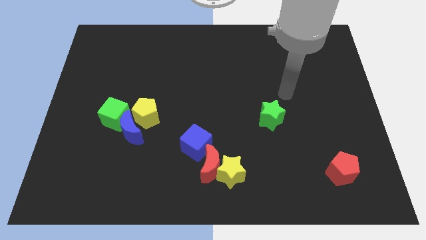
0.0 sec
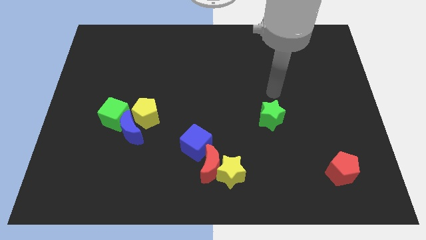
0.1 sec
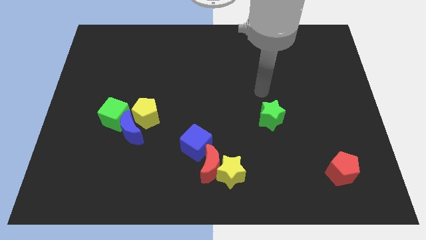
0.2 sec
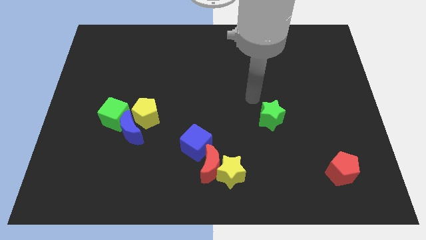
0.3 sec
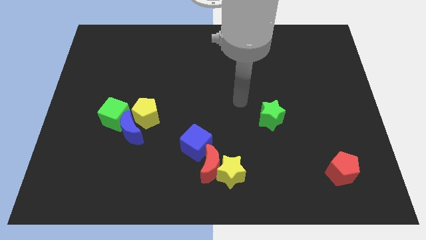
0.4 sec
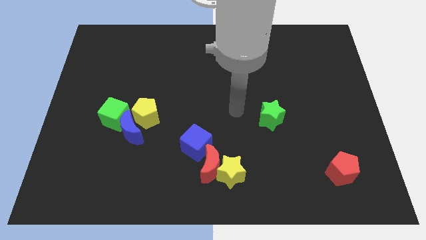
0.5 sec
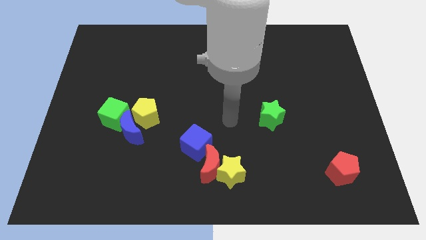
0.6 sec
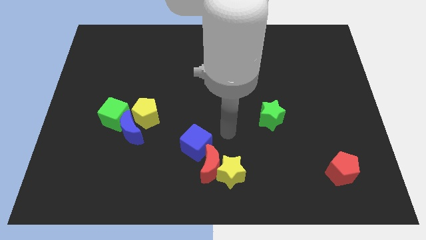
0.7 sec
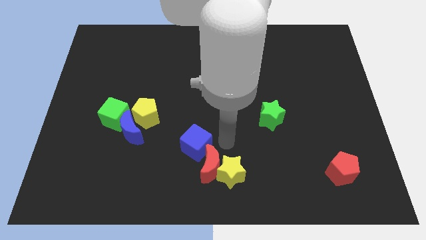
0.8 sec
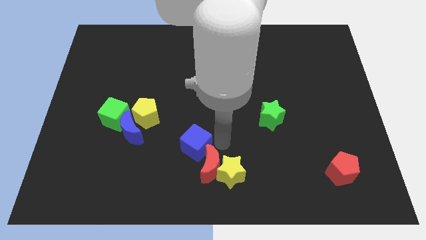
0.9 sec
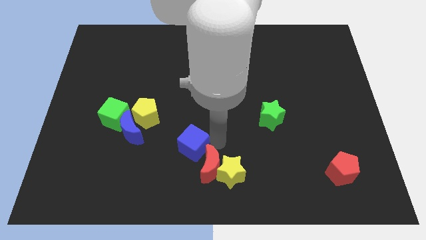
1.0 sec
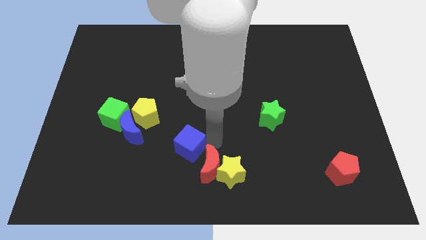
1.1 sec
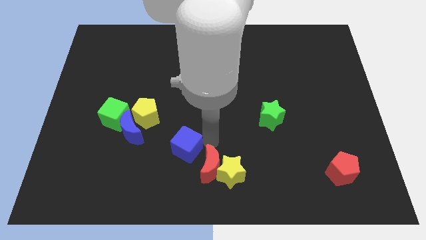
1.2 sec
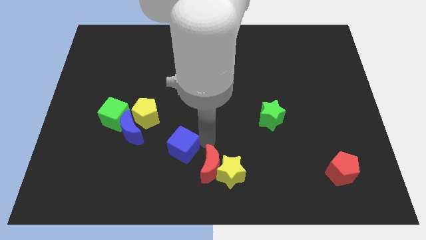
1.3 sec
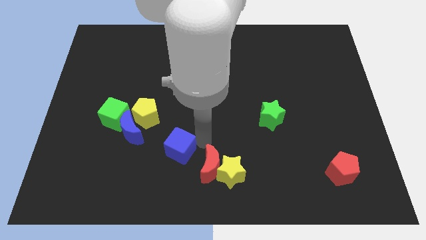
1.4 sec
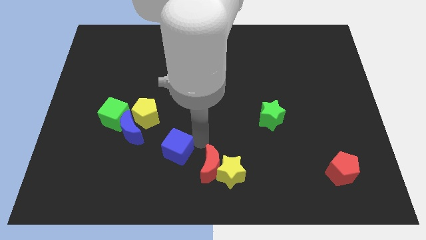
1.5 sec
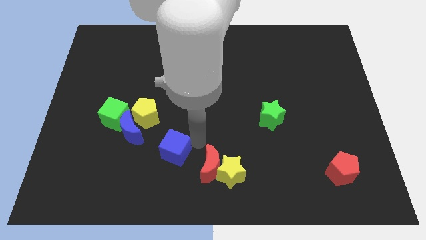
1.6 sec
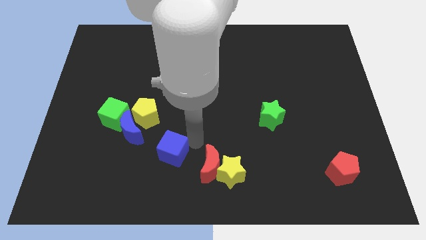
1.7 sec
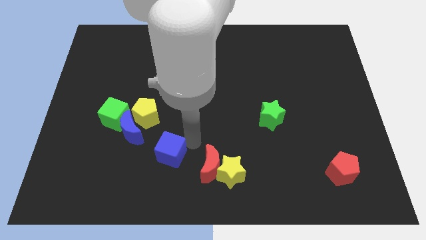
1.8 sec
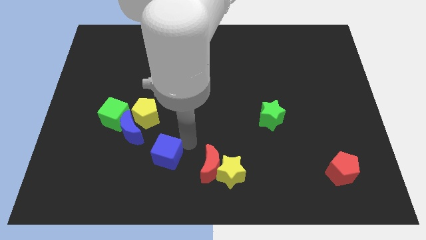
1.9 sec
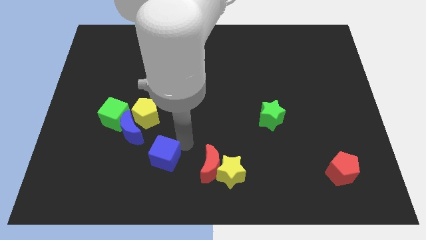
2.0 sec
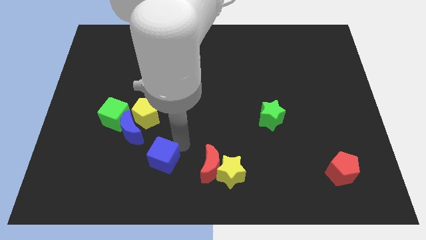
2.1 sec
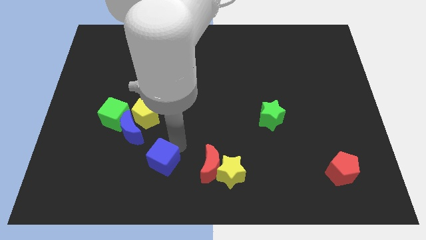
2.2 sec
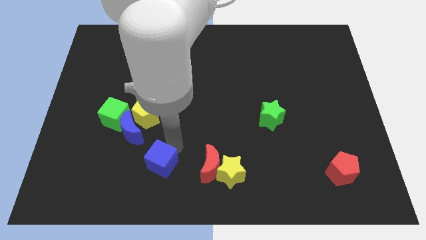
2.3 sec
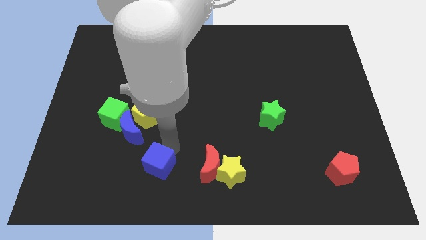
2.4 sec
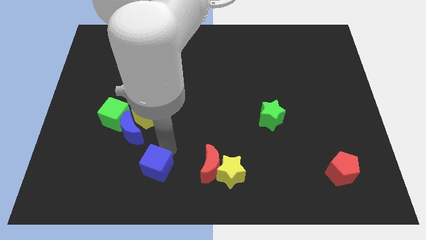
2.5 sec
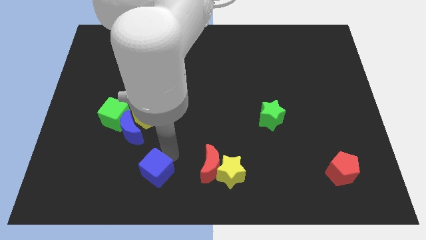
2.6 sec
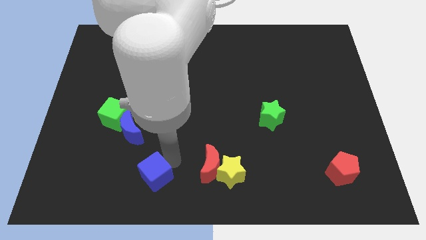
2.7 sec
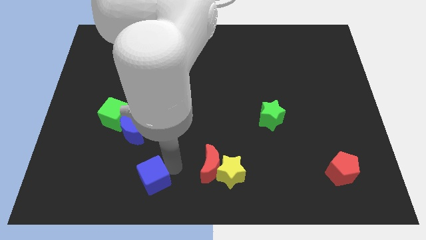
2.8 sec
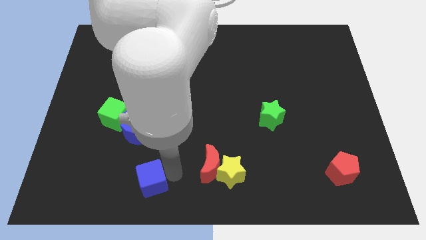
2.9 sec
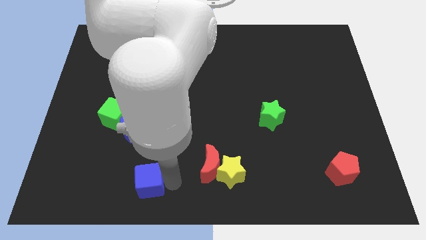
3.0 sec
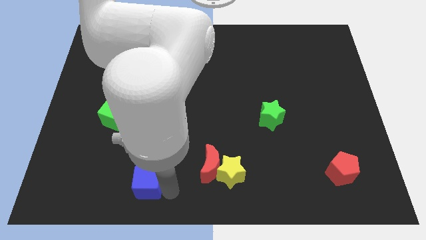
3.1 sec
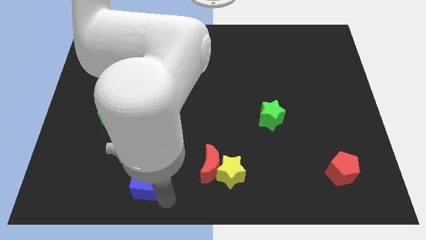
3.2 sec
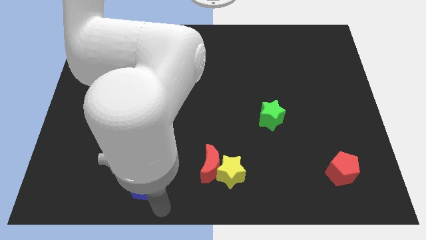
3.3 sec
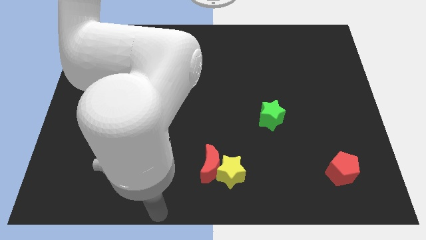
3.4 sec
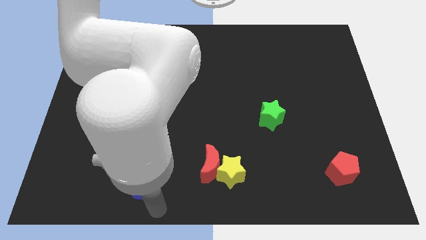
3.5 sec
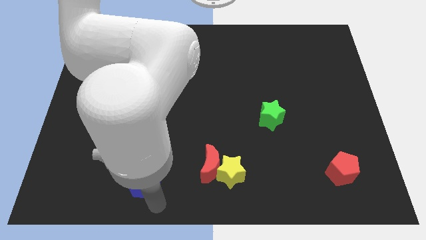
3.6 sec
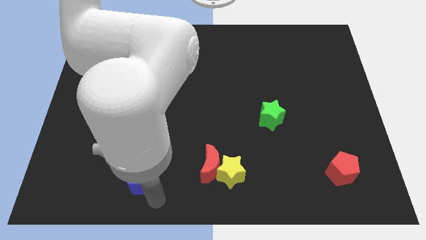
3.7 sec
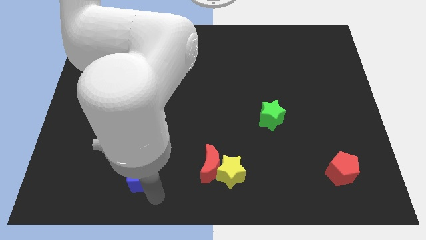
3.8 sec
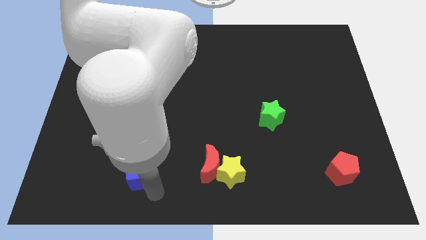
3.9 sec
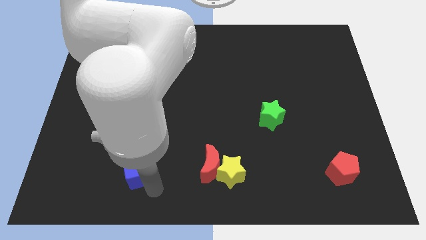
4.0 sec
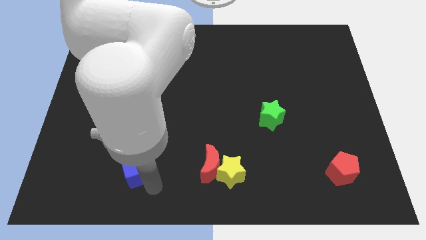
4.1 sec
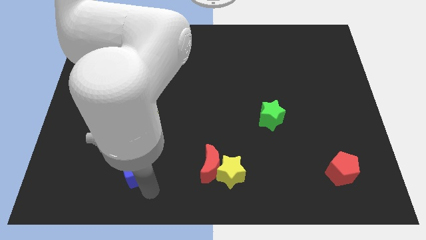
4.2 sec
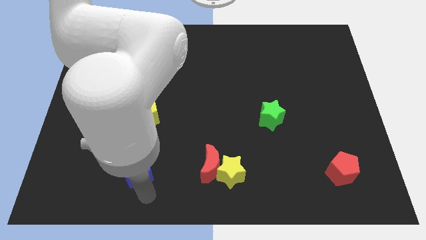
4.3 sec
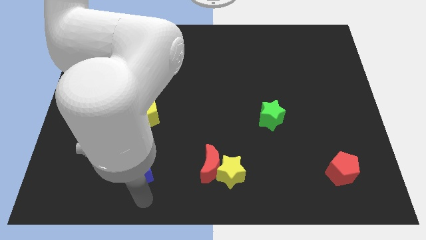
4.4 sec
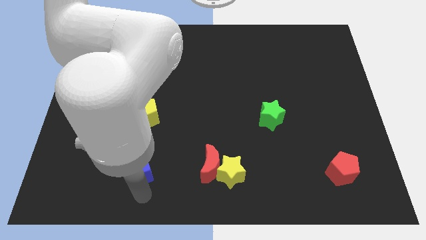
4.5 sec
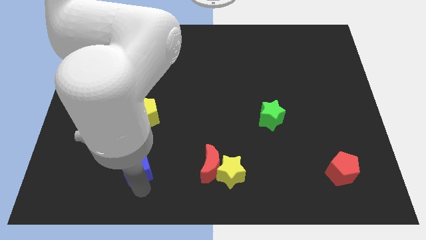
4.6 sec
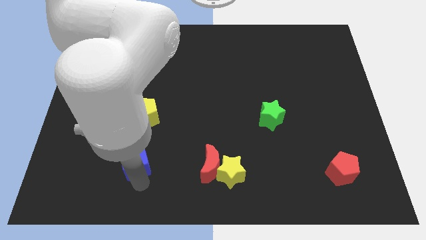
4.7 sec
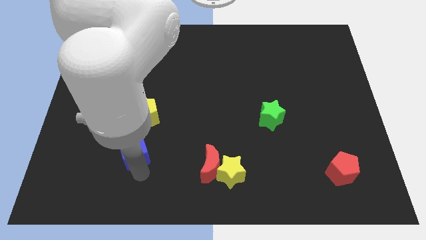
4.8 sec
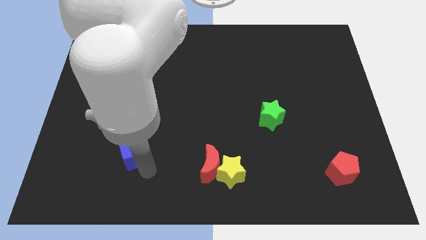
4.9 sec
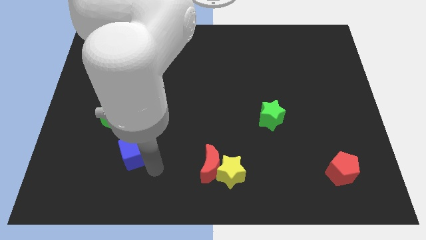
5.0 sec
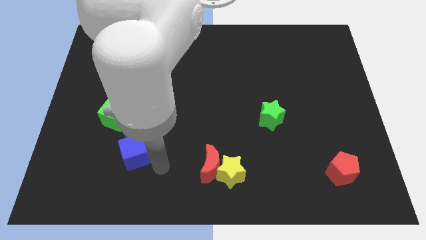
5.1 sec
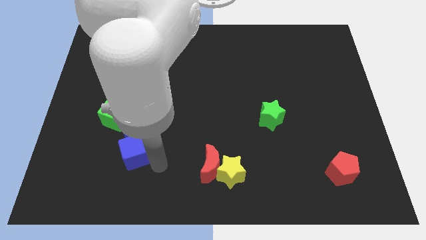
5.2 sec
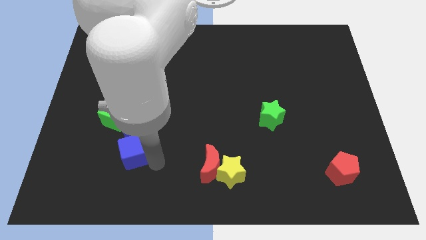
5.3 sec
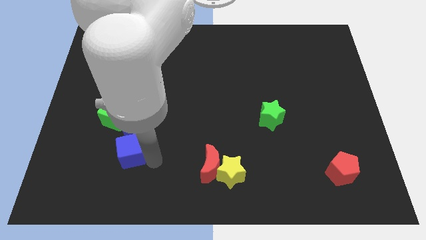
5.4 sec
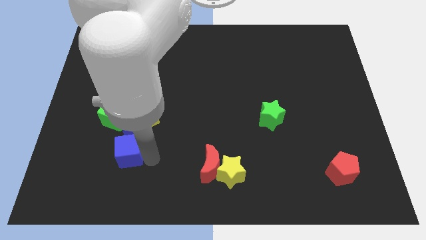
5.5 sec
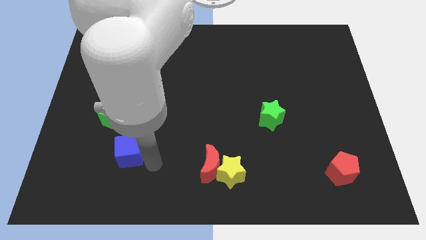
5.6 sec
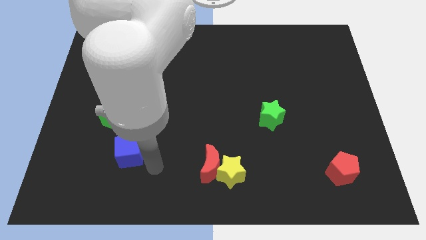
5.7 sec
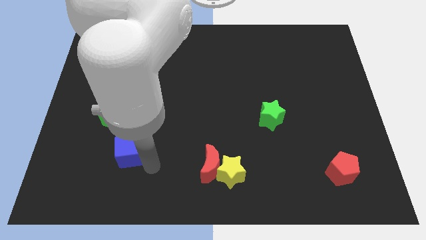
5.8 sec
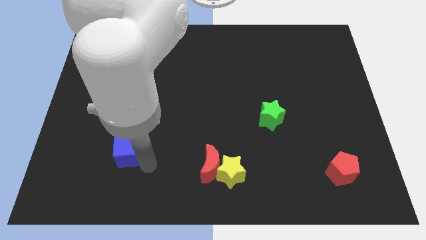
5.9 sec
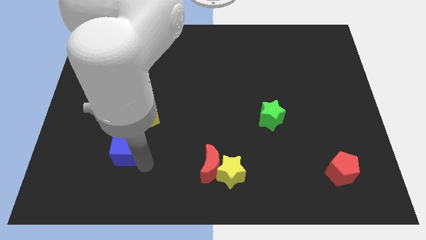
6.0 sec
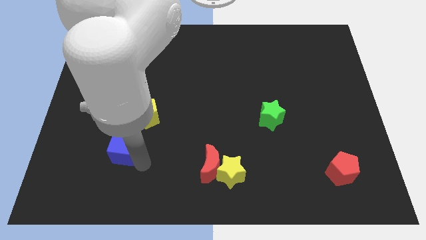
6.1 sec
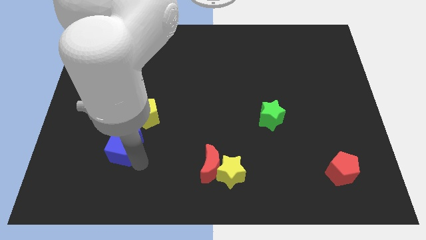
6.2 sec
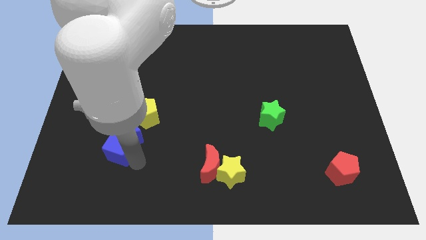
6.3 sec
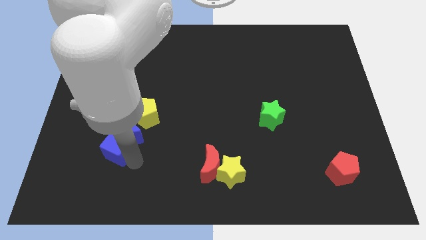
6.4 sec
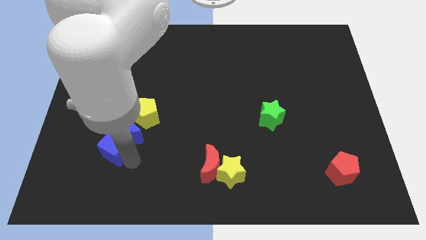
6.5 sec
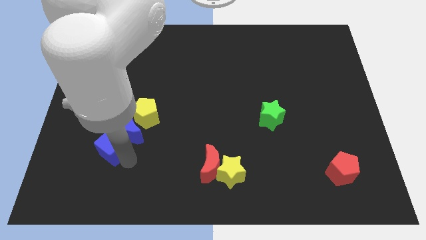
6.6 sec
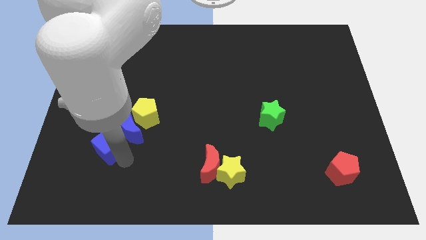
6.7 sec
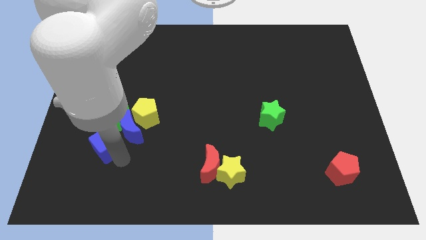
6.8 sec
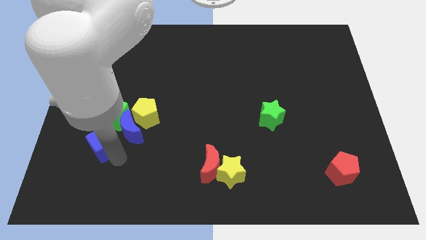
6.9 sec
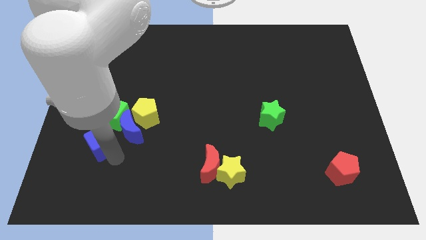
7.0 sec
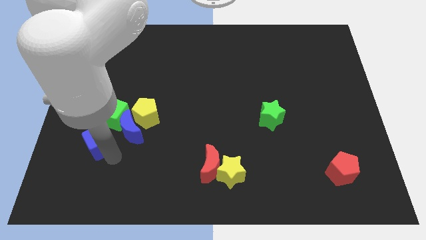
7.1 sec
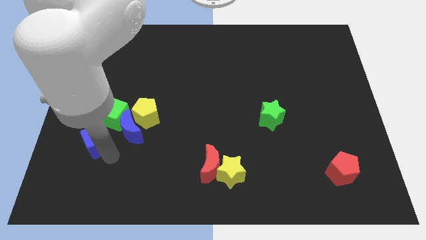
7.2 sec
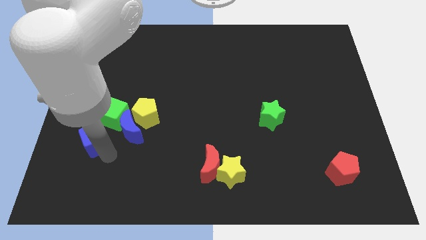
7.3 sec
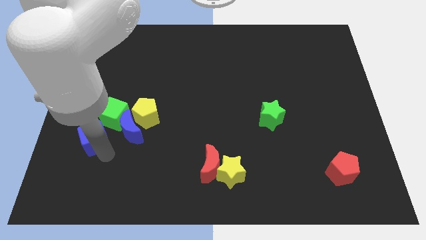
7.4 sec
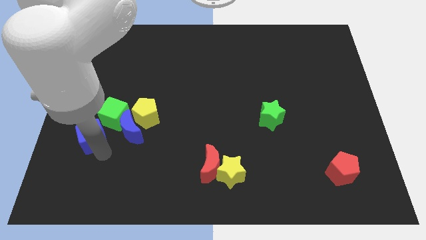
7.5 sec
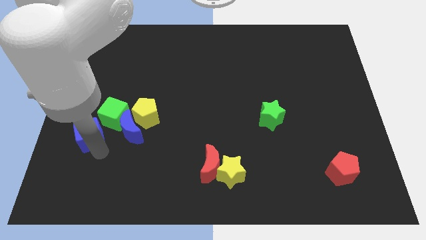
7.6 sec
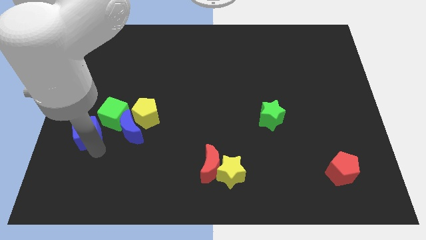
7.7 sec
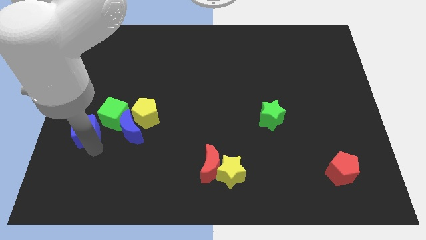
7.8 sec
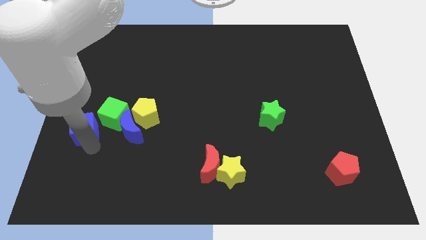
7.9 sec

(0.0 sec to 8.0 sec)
slide the blue cube to the left side of the yellow pentagon
